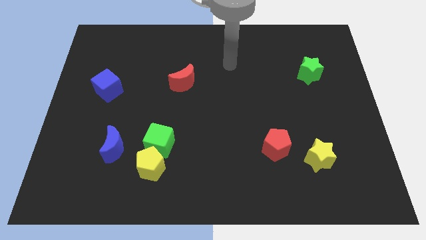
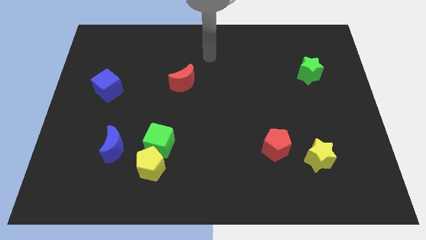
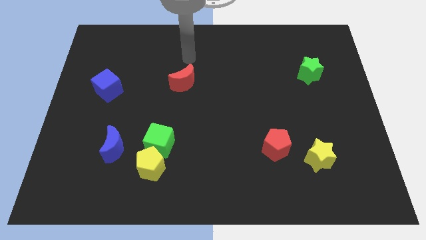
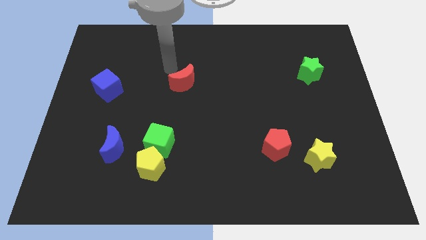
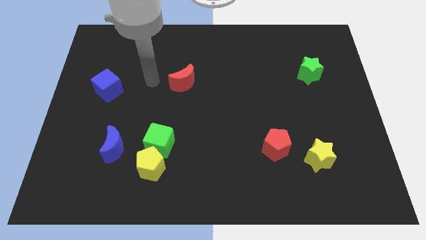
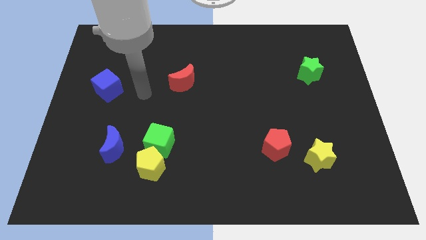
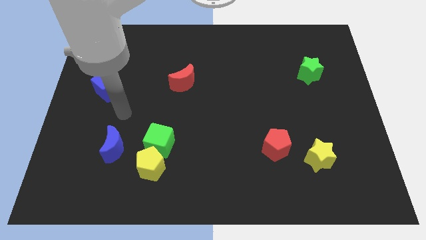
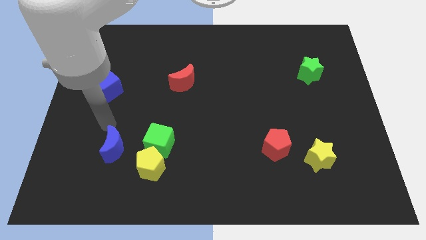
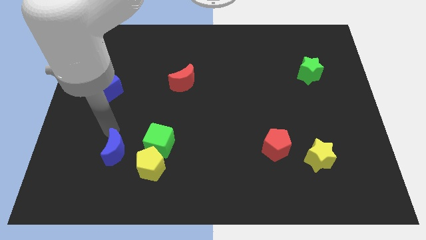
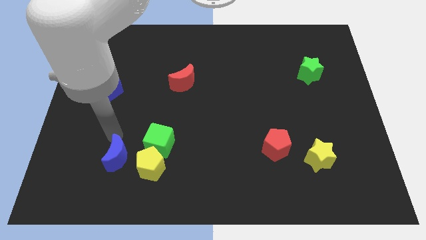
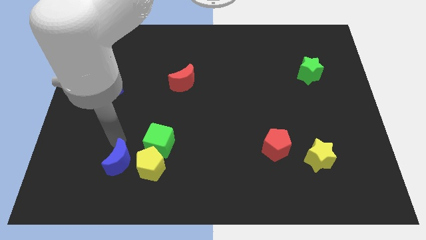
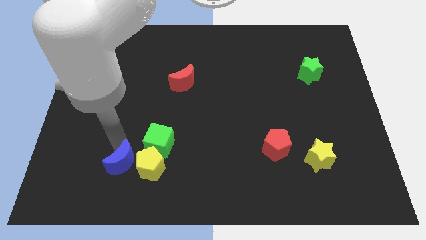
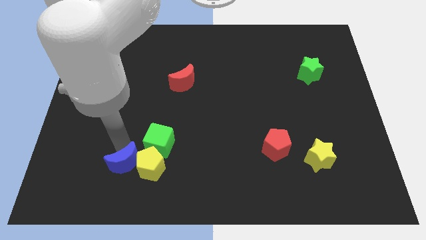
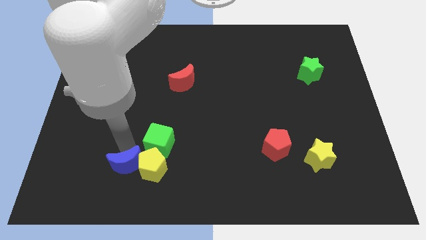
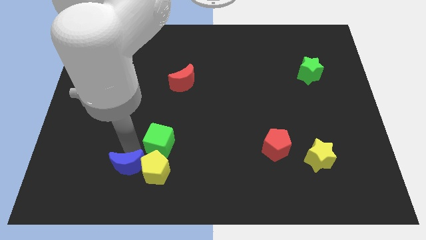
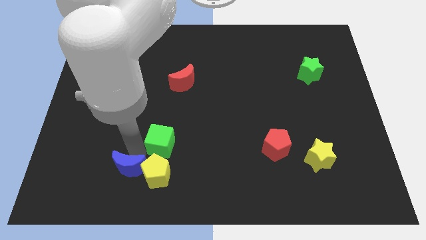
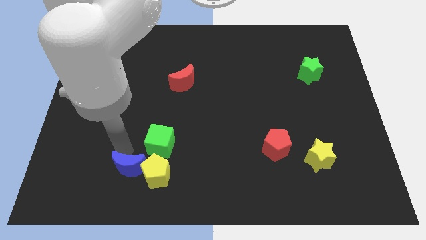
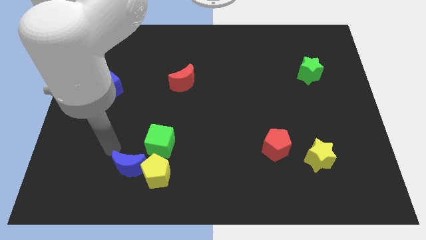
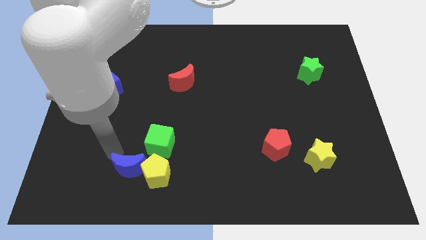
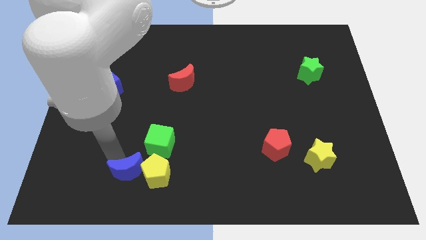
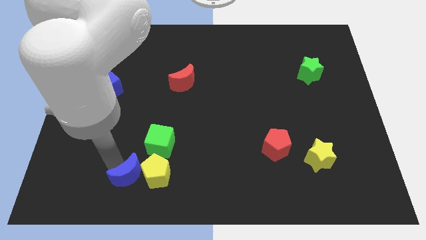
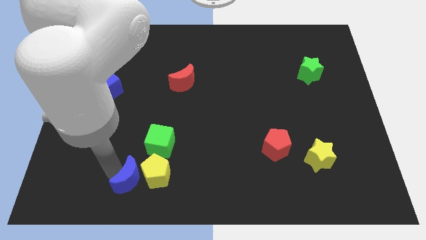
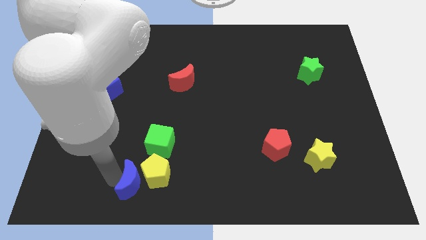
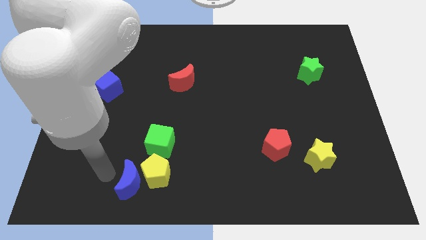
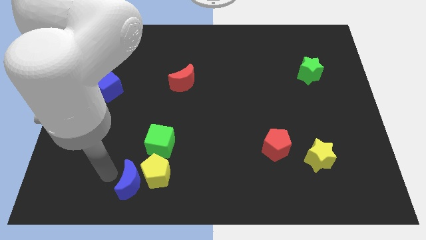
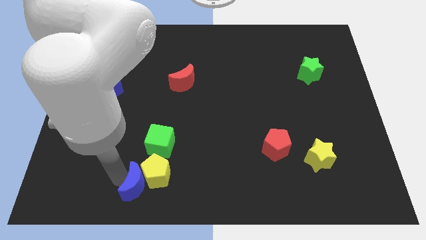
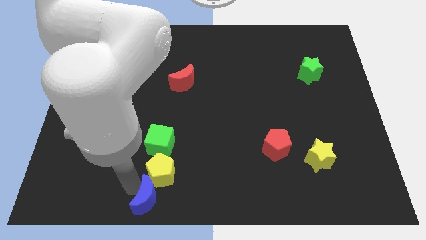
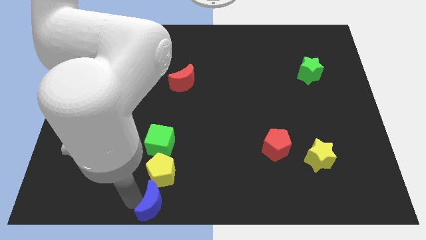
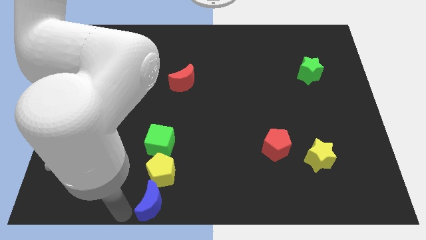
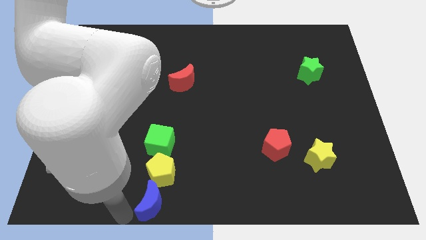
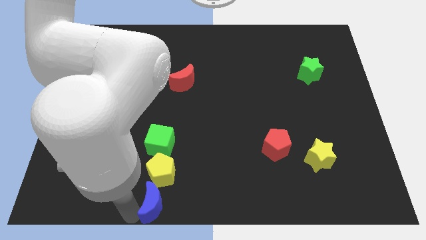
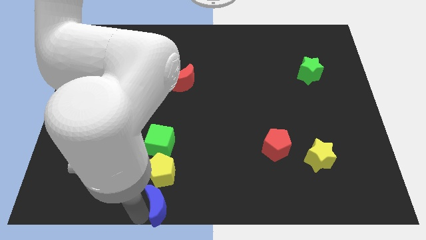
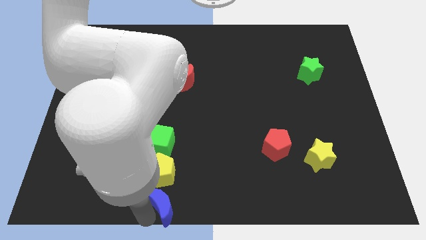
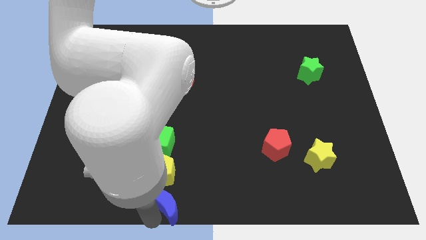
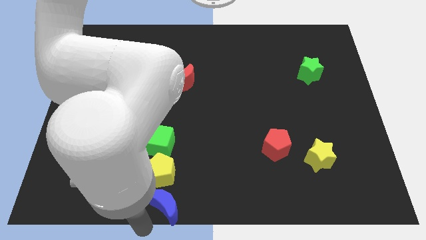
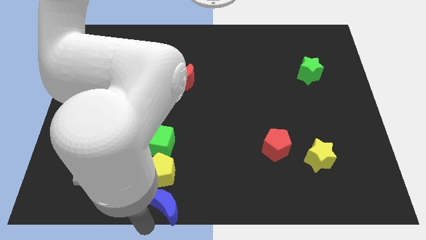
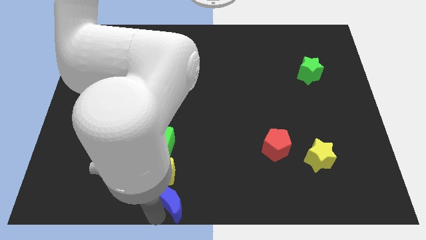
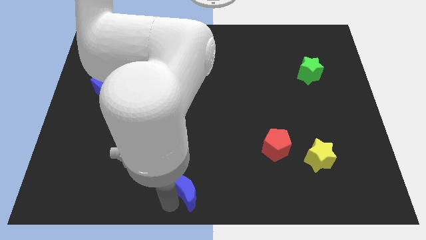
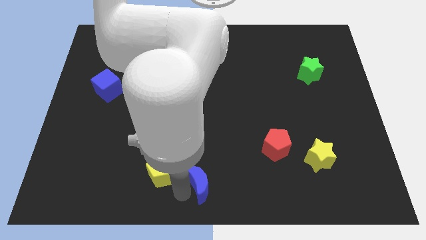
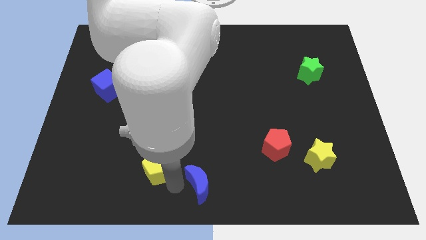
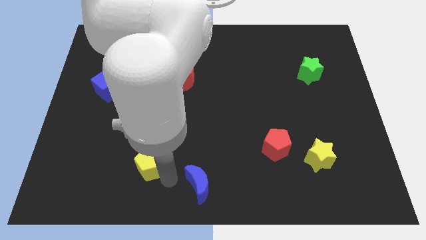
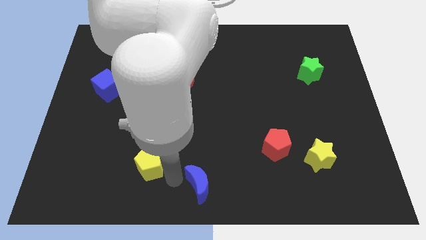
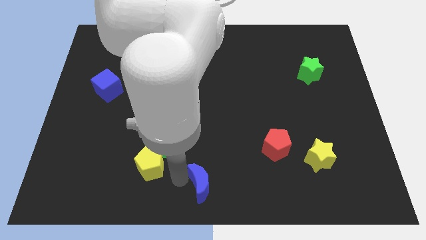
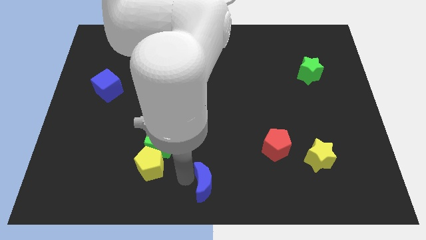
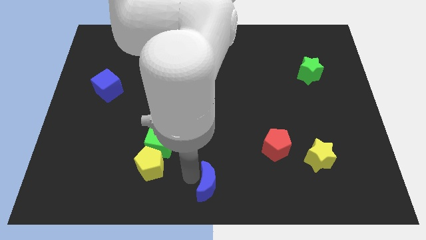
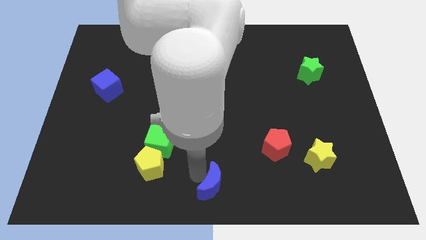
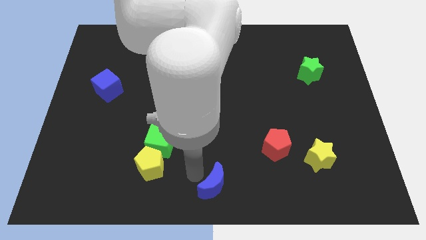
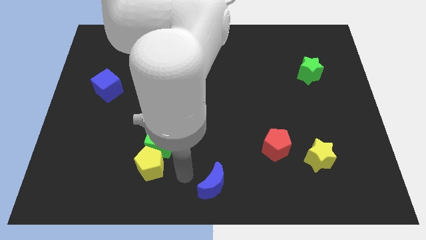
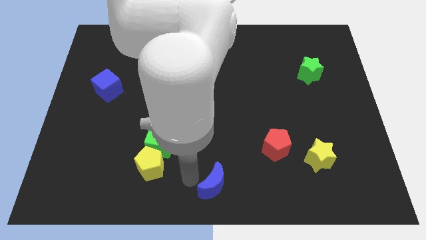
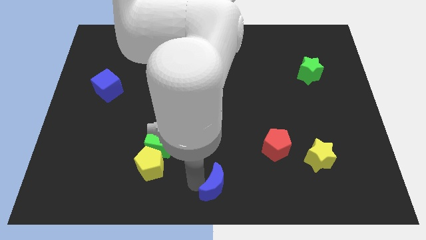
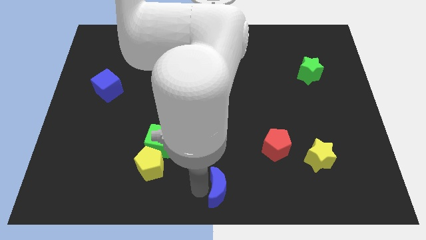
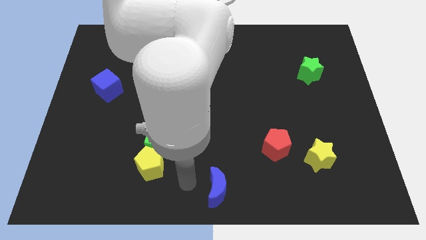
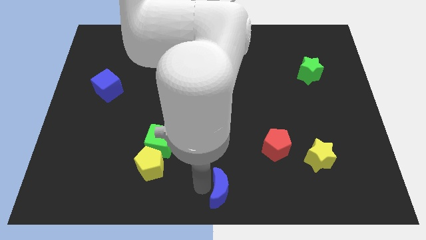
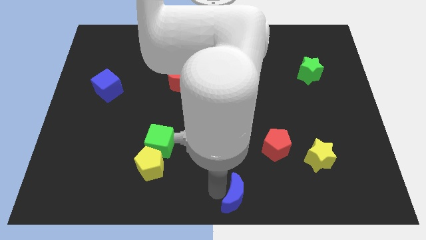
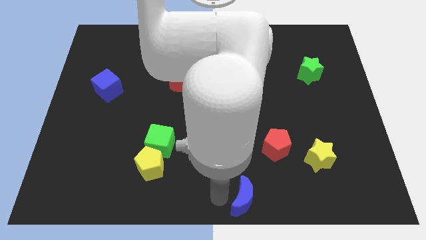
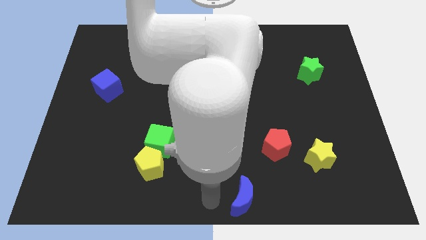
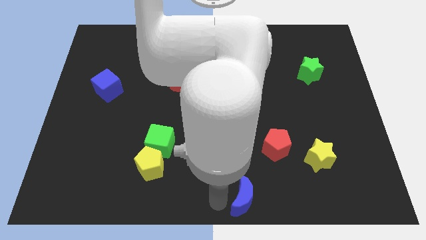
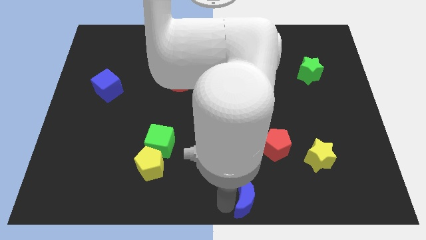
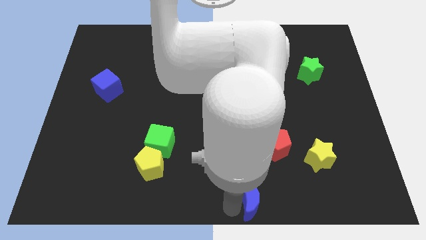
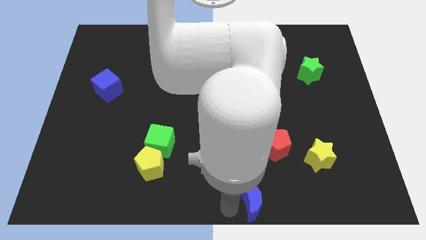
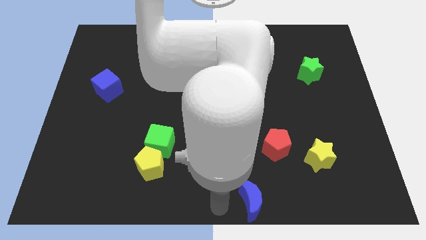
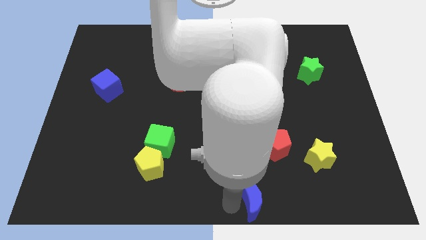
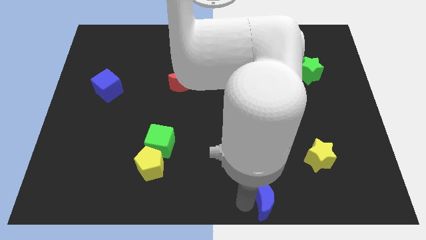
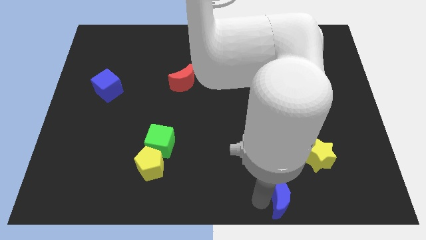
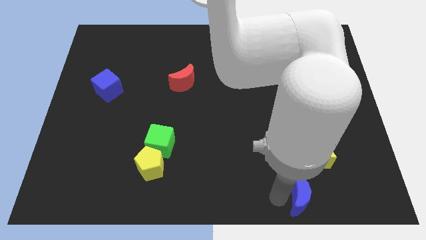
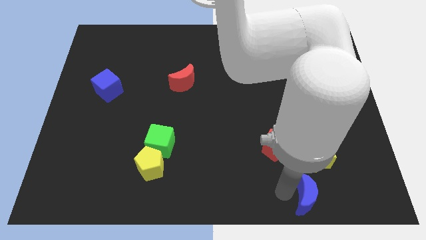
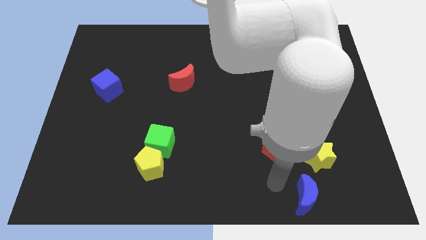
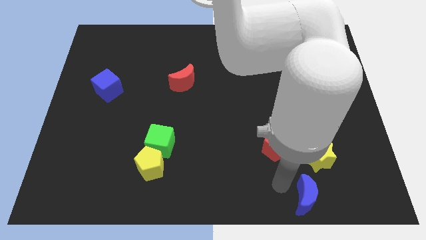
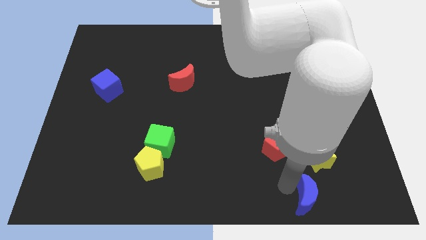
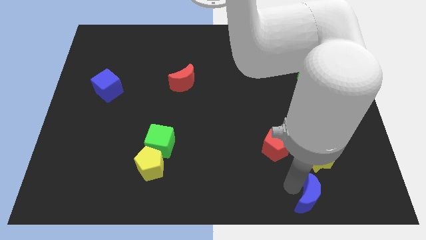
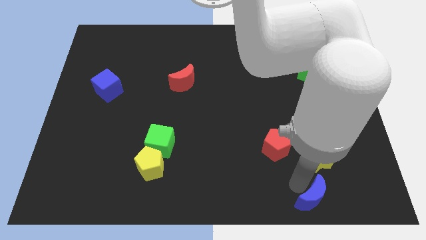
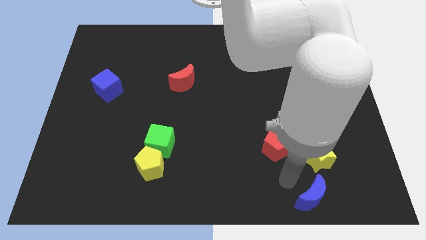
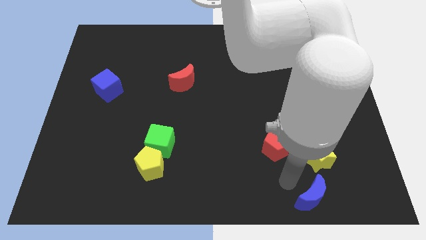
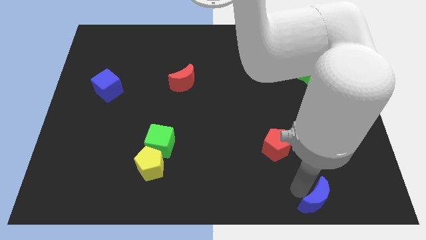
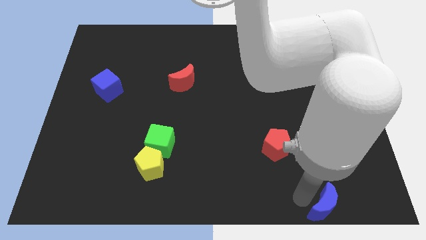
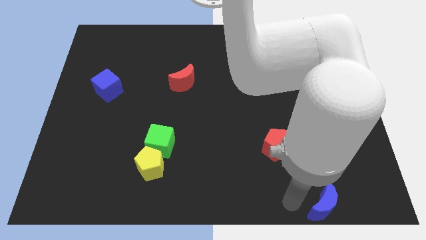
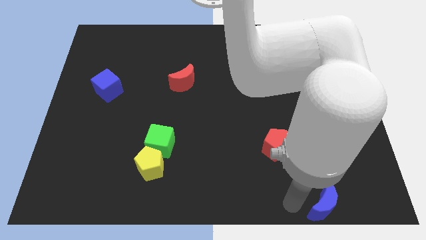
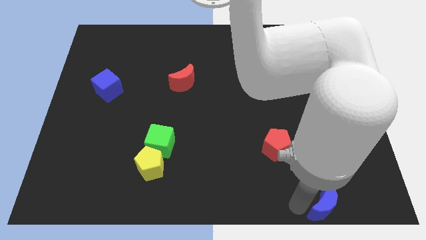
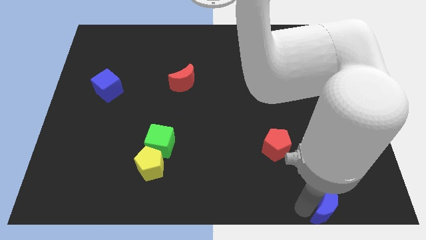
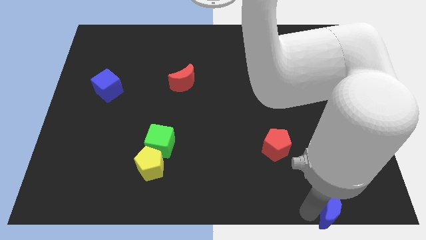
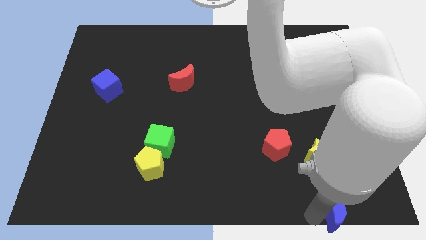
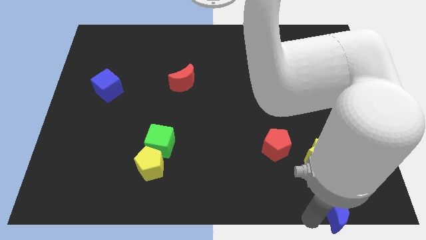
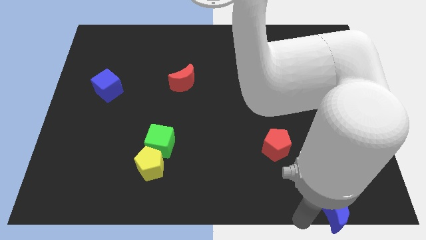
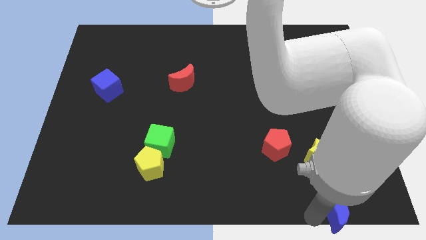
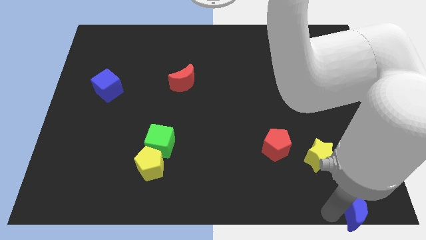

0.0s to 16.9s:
move the blue moon to the bottom right of the board
